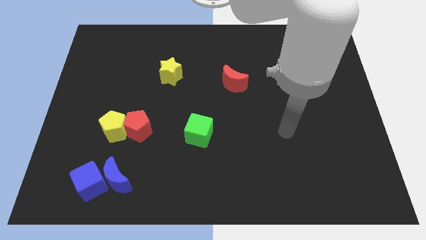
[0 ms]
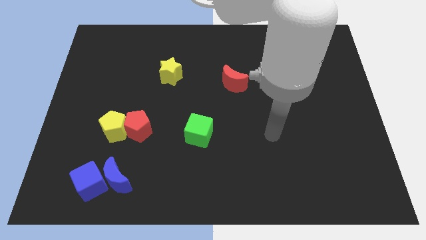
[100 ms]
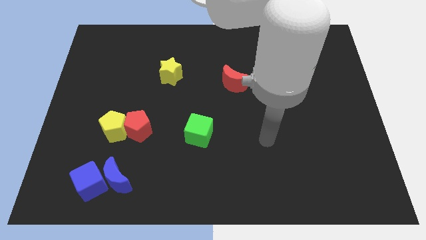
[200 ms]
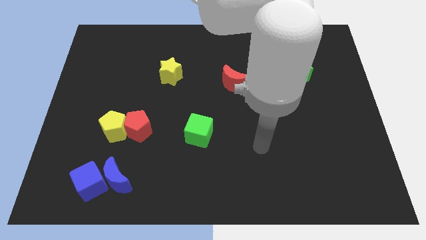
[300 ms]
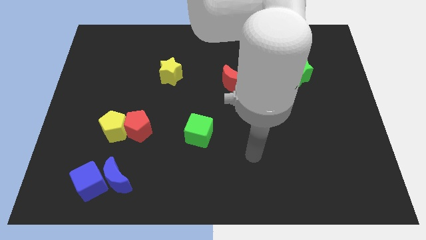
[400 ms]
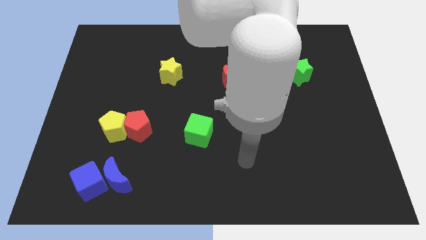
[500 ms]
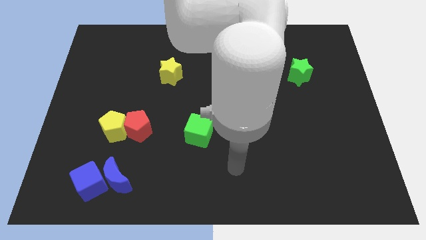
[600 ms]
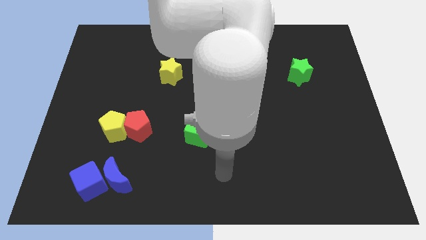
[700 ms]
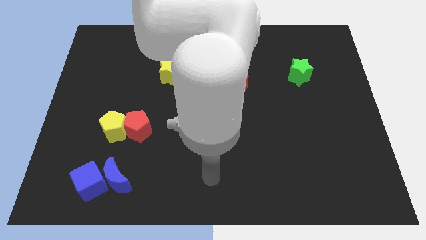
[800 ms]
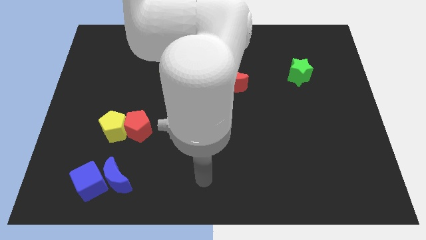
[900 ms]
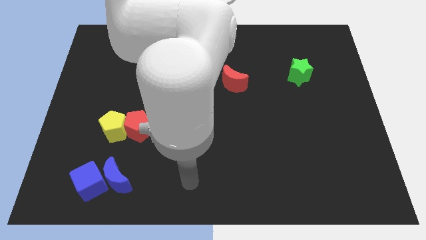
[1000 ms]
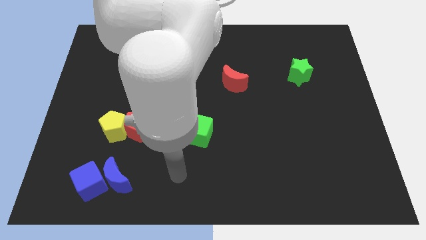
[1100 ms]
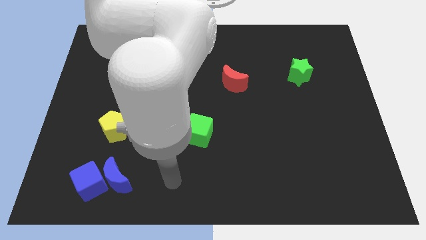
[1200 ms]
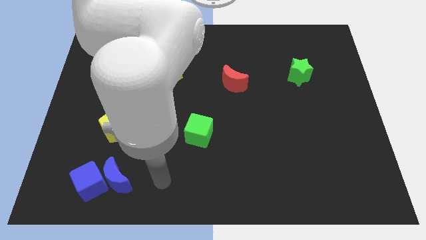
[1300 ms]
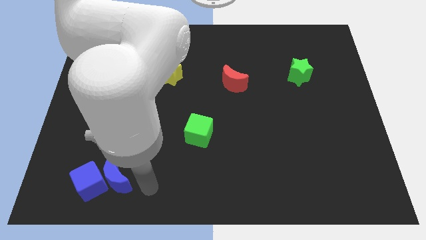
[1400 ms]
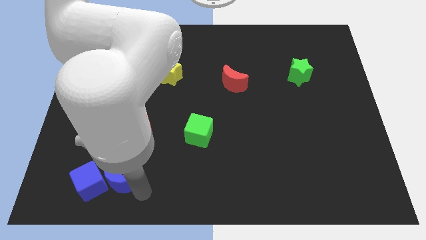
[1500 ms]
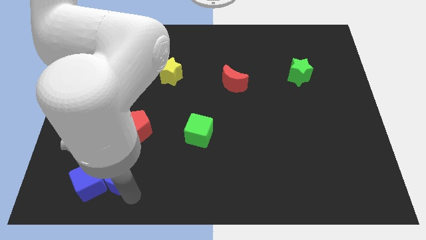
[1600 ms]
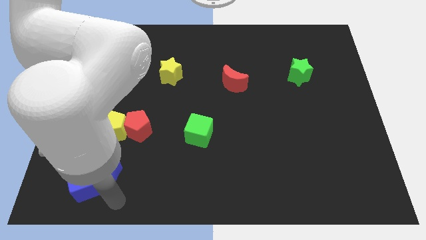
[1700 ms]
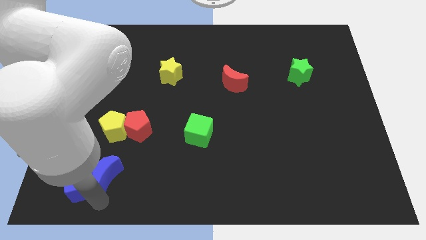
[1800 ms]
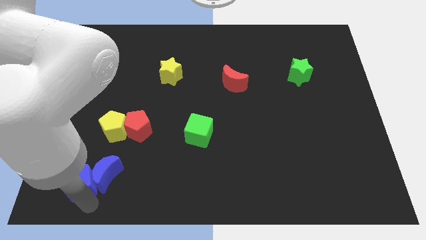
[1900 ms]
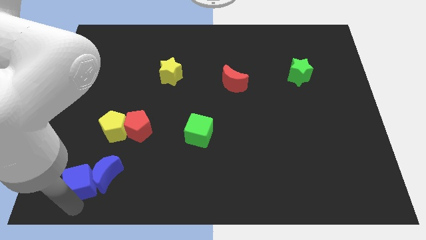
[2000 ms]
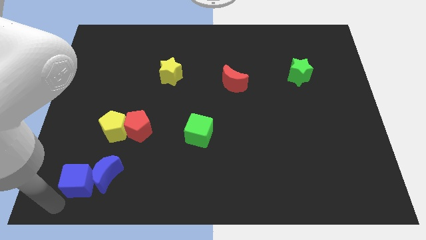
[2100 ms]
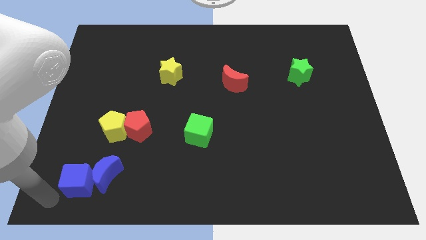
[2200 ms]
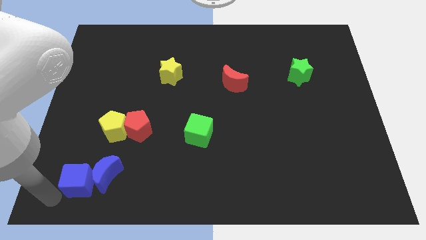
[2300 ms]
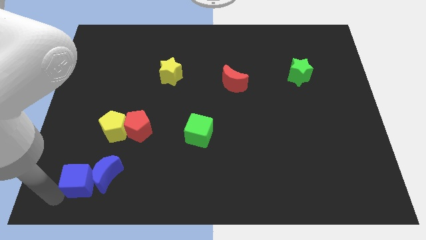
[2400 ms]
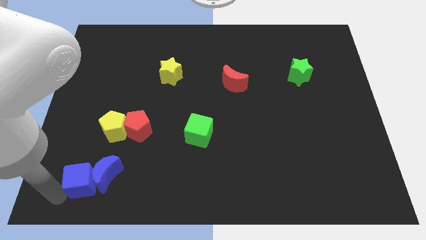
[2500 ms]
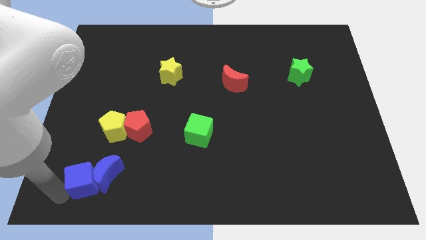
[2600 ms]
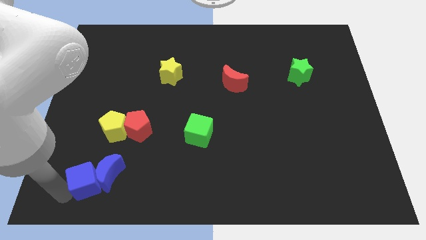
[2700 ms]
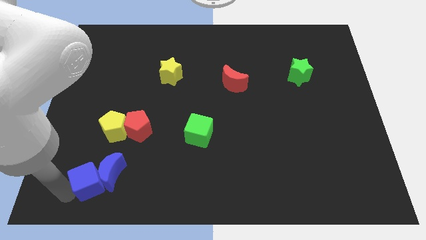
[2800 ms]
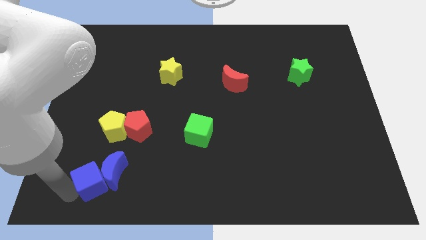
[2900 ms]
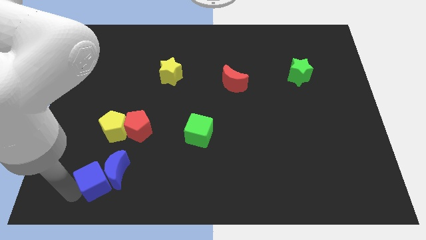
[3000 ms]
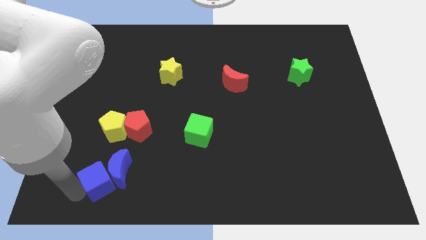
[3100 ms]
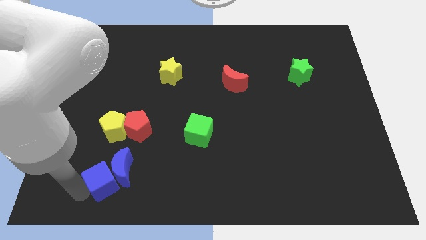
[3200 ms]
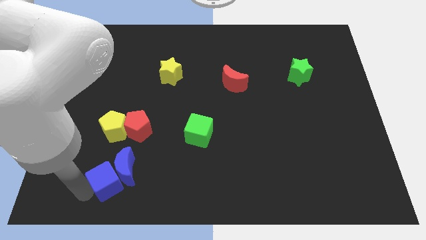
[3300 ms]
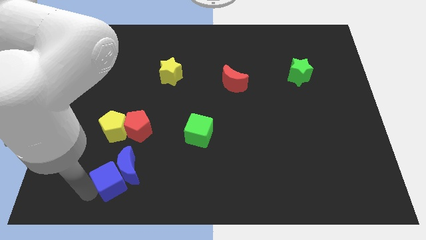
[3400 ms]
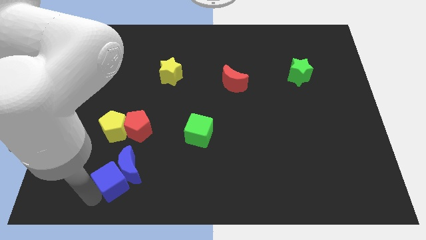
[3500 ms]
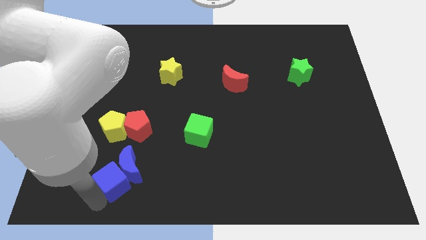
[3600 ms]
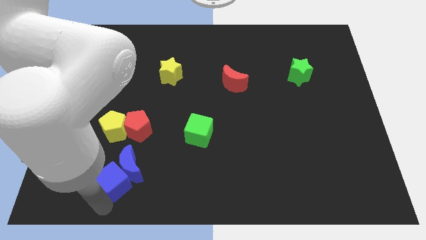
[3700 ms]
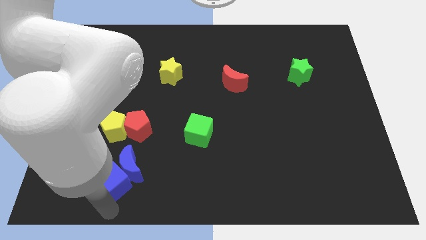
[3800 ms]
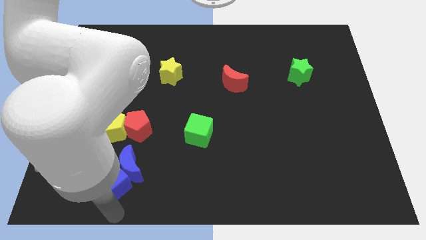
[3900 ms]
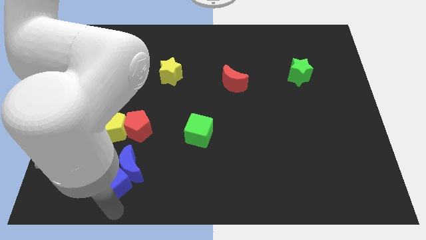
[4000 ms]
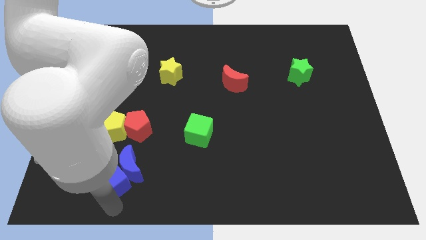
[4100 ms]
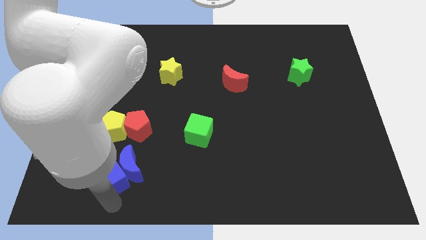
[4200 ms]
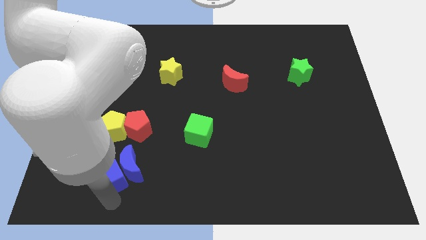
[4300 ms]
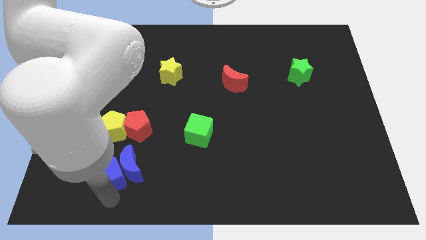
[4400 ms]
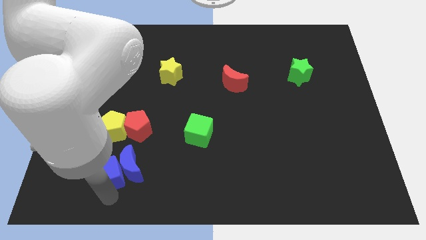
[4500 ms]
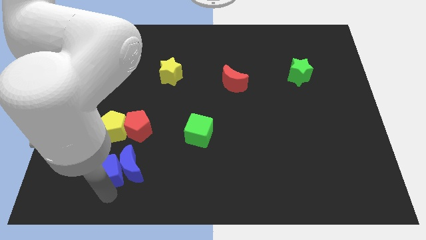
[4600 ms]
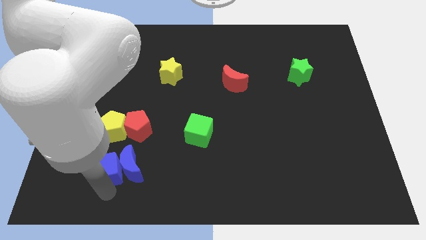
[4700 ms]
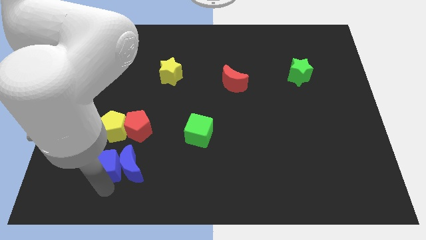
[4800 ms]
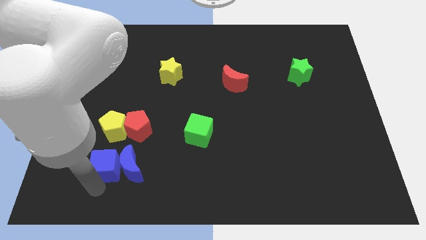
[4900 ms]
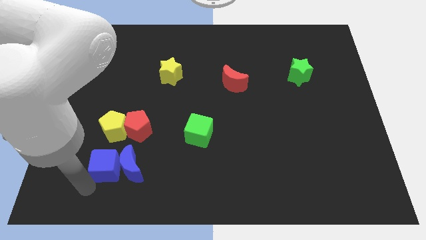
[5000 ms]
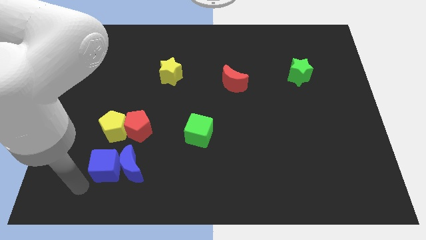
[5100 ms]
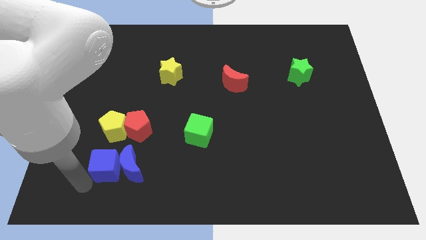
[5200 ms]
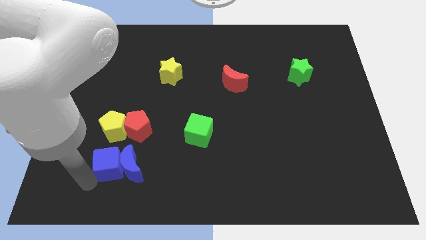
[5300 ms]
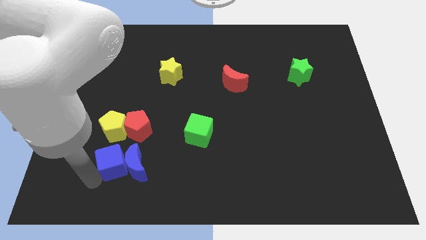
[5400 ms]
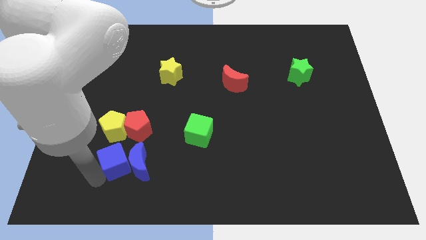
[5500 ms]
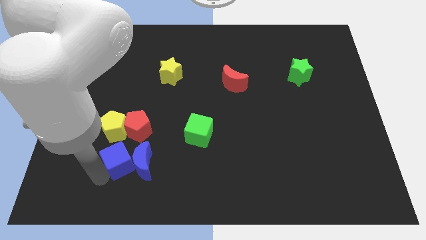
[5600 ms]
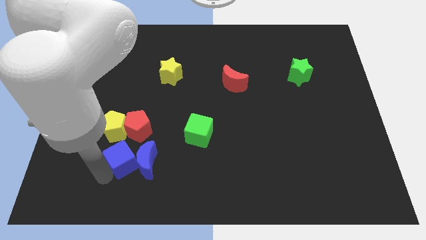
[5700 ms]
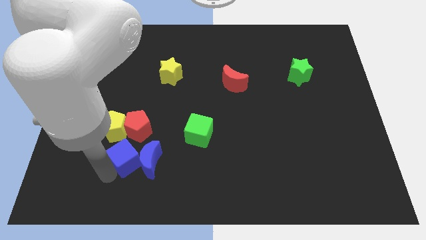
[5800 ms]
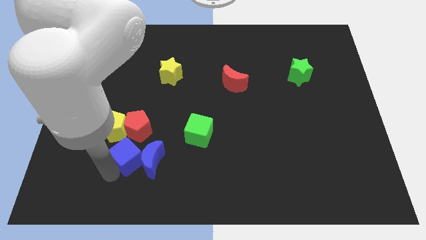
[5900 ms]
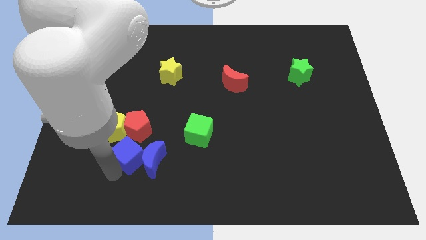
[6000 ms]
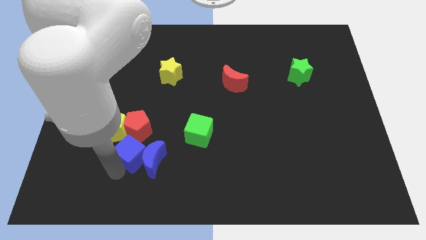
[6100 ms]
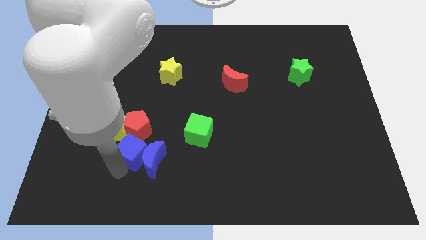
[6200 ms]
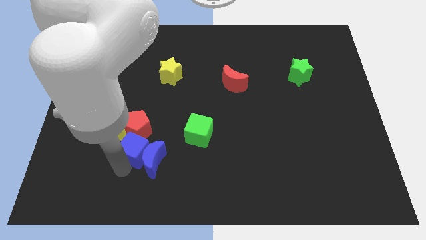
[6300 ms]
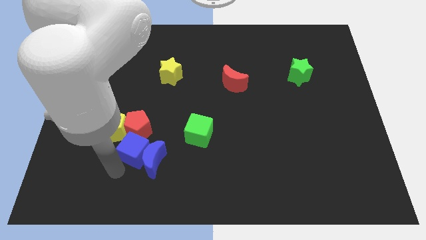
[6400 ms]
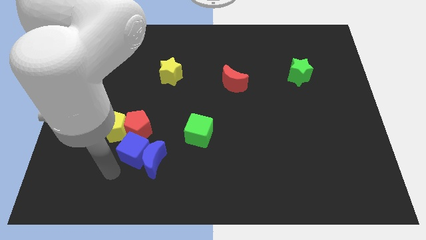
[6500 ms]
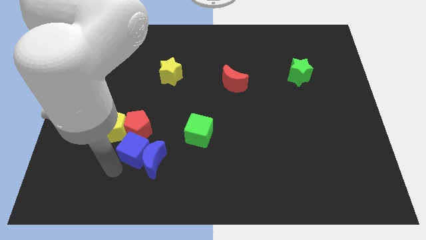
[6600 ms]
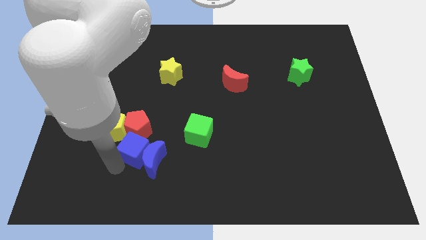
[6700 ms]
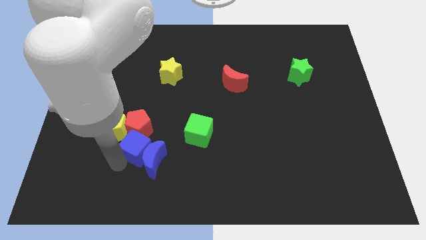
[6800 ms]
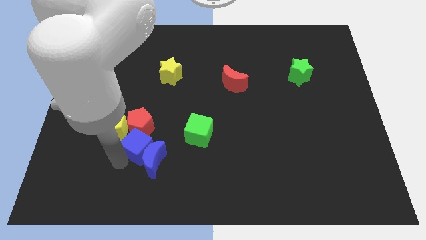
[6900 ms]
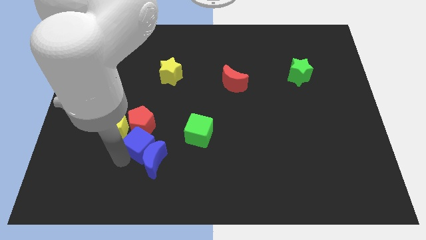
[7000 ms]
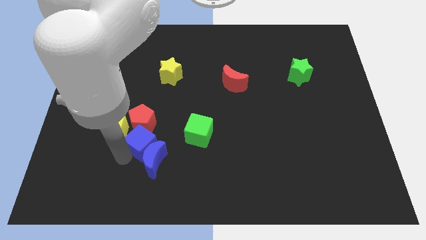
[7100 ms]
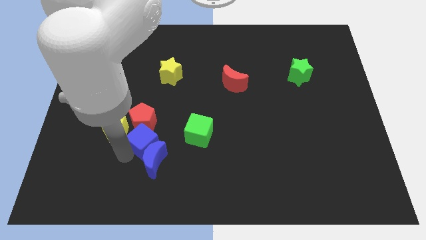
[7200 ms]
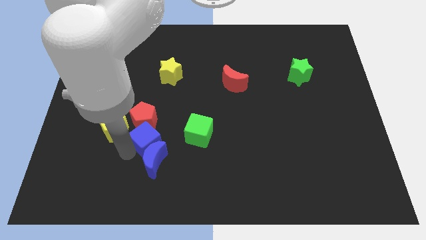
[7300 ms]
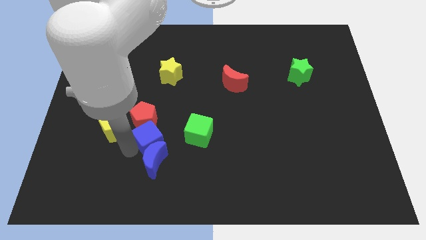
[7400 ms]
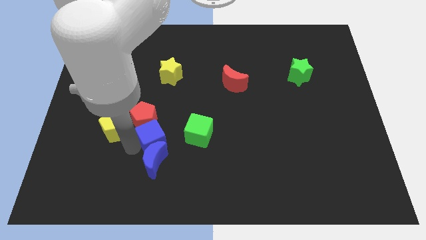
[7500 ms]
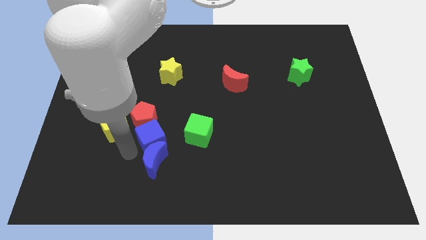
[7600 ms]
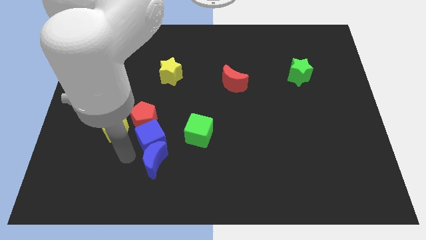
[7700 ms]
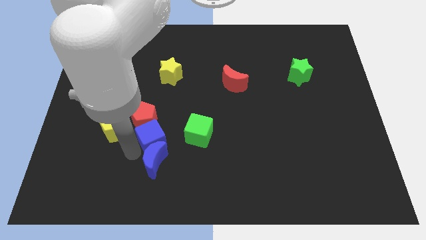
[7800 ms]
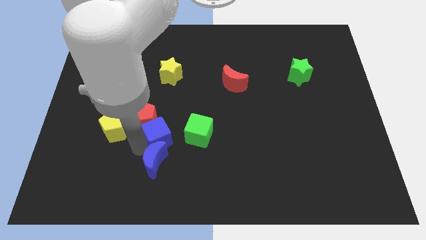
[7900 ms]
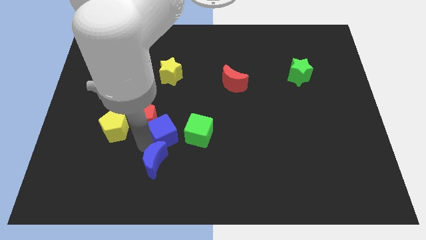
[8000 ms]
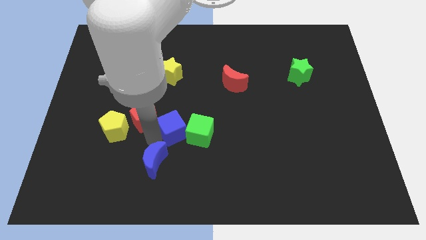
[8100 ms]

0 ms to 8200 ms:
push the blue cube to the center of the board
